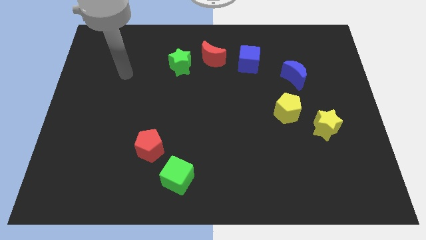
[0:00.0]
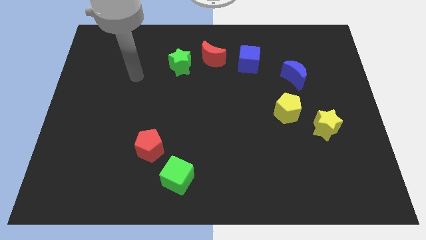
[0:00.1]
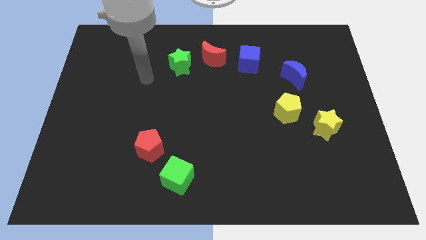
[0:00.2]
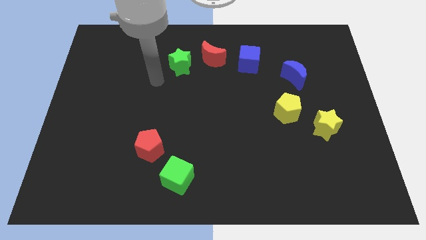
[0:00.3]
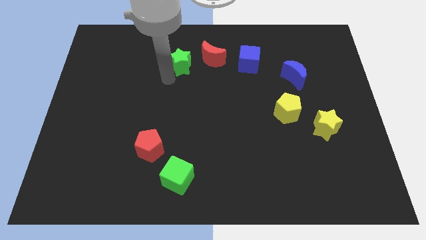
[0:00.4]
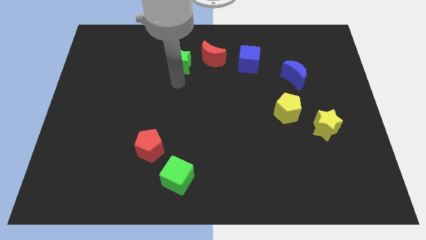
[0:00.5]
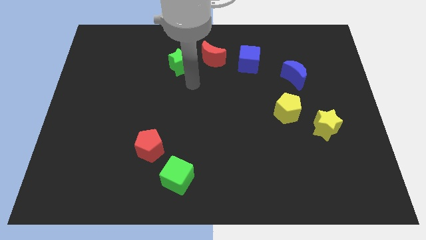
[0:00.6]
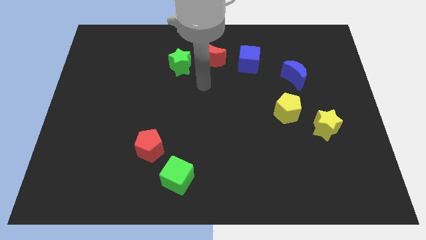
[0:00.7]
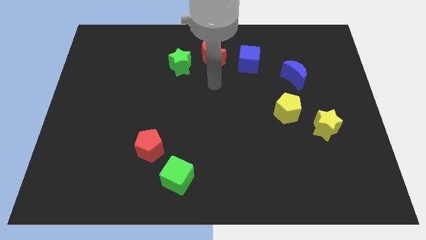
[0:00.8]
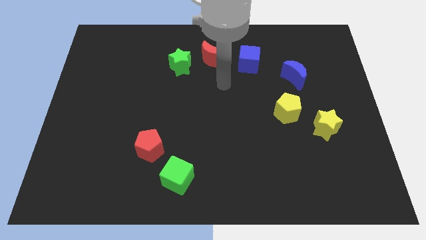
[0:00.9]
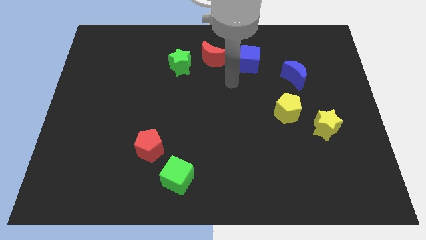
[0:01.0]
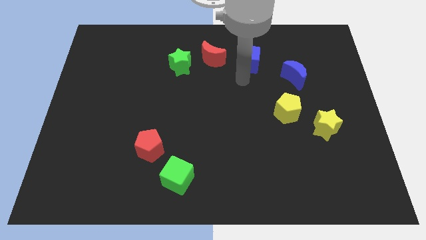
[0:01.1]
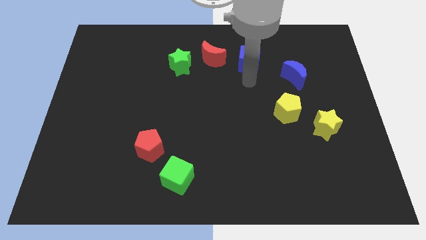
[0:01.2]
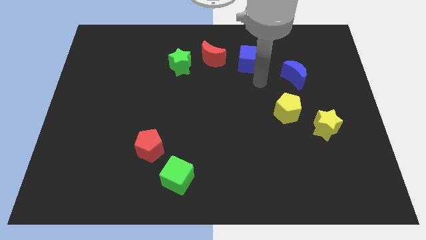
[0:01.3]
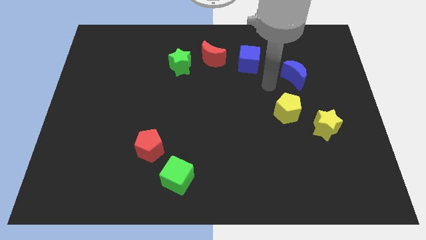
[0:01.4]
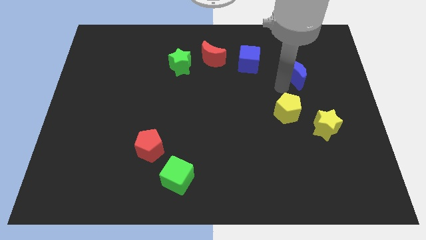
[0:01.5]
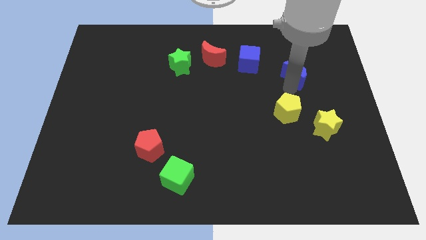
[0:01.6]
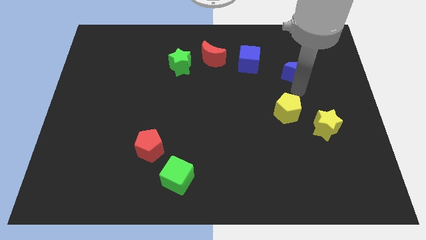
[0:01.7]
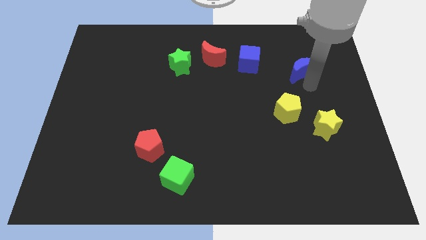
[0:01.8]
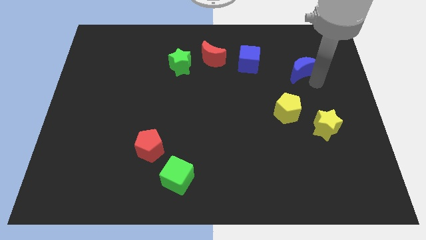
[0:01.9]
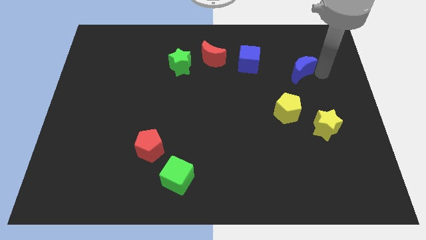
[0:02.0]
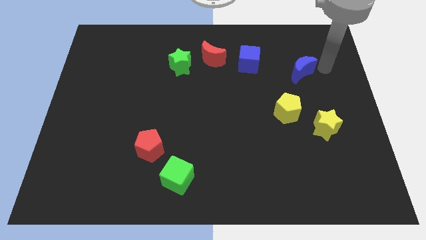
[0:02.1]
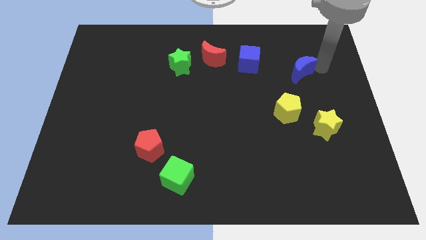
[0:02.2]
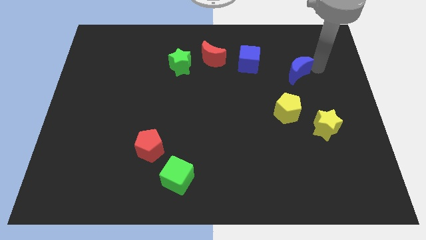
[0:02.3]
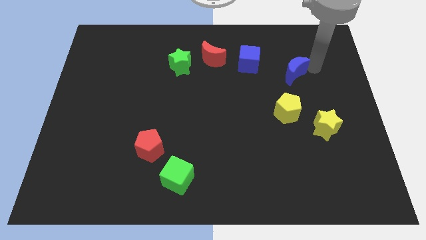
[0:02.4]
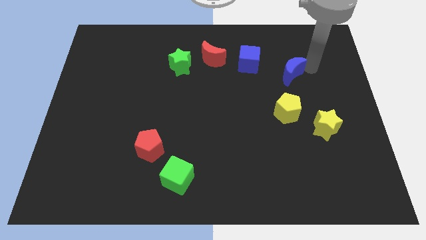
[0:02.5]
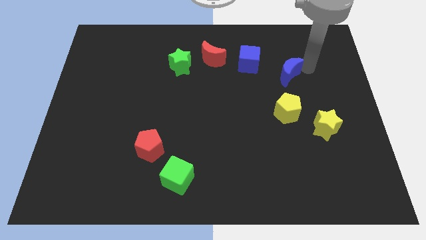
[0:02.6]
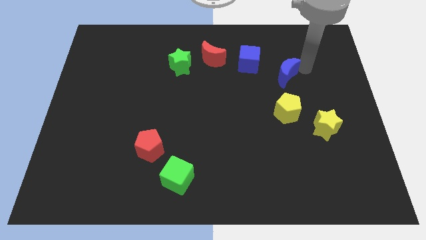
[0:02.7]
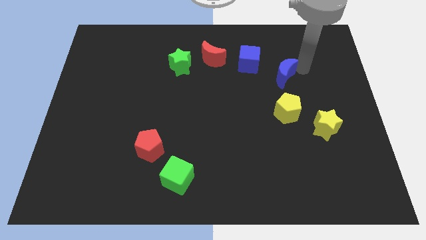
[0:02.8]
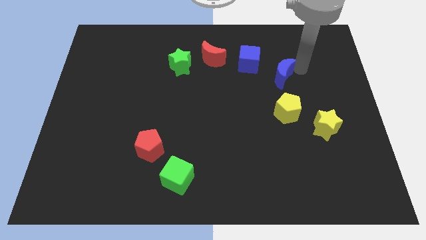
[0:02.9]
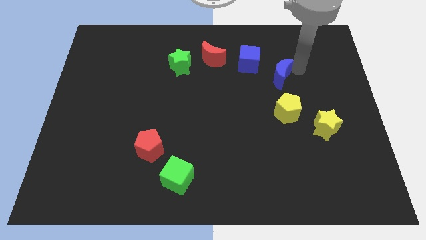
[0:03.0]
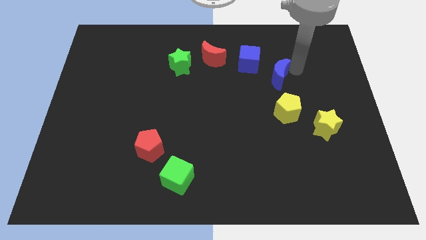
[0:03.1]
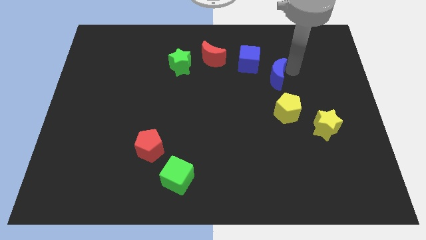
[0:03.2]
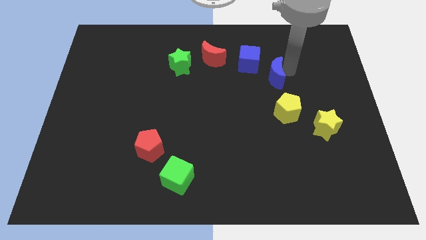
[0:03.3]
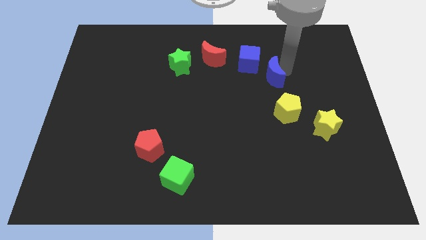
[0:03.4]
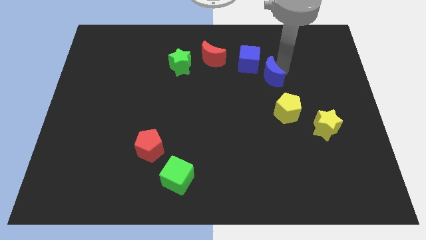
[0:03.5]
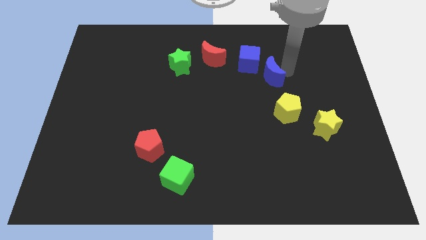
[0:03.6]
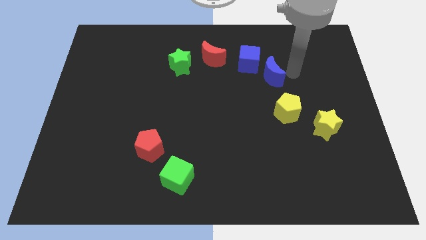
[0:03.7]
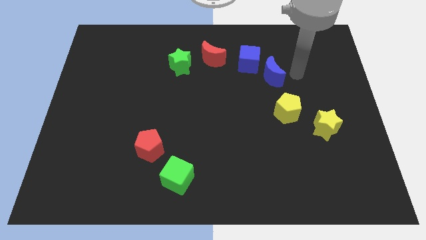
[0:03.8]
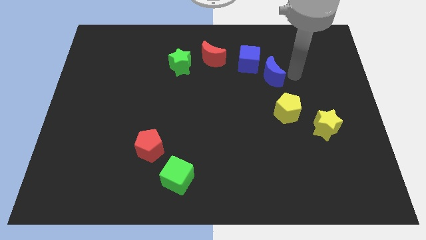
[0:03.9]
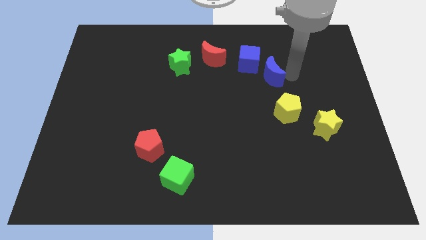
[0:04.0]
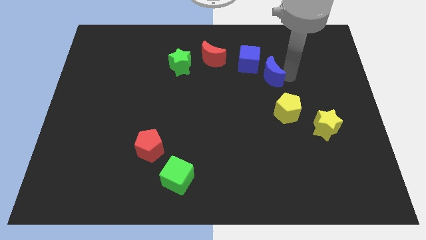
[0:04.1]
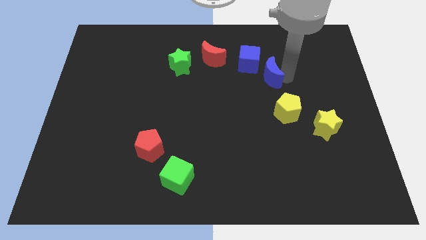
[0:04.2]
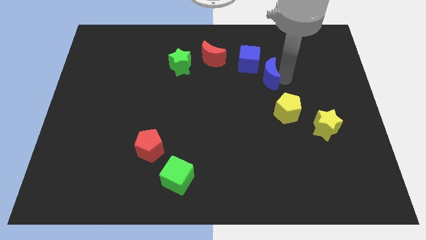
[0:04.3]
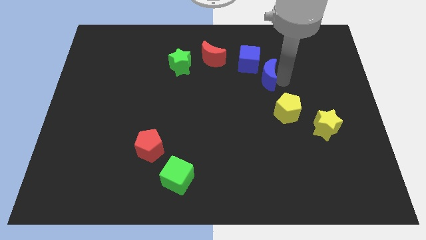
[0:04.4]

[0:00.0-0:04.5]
slightly slide the blue moon to the left

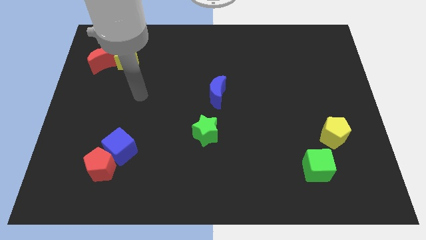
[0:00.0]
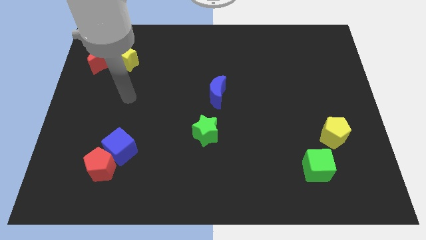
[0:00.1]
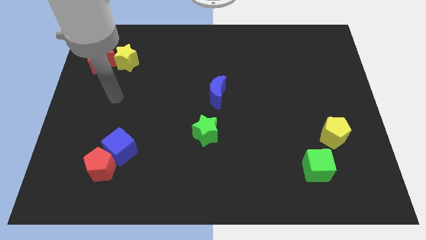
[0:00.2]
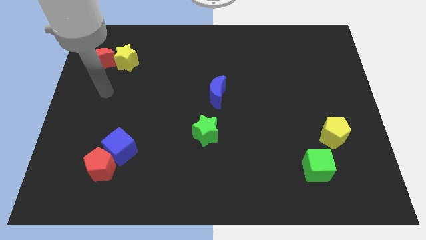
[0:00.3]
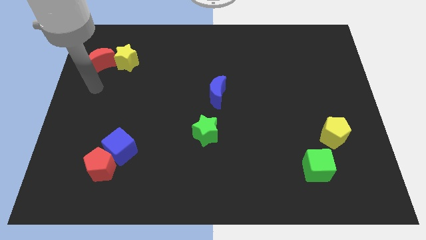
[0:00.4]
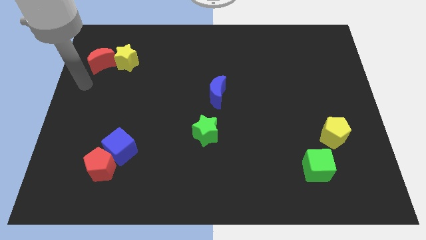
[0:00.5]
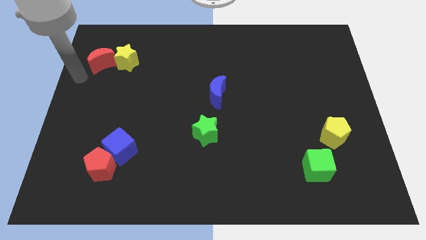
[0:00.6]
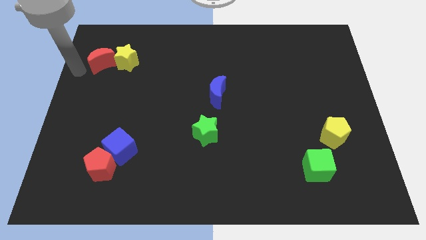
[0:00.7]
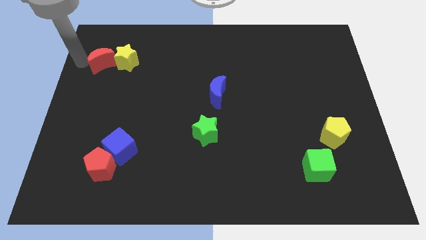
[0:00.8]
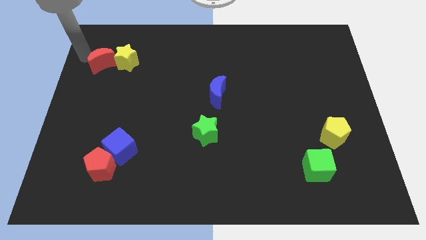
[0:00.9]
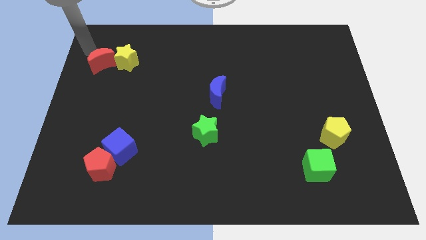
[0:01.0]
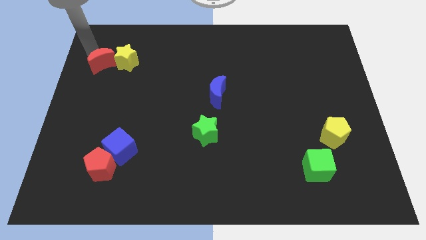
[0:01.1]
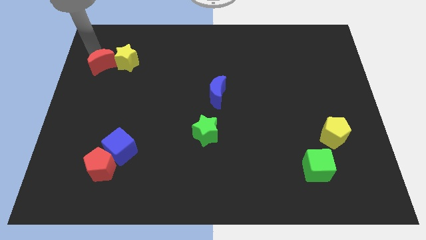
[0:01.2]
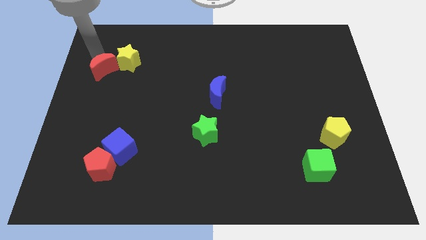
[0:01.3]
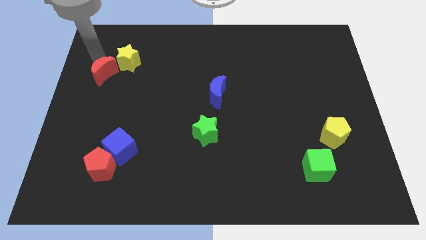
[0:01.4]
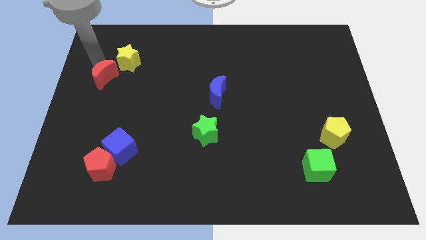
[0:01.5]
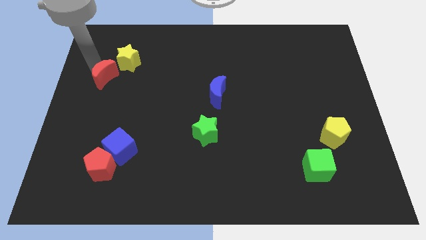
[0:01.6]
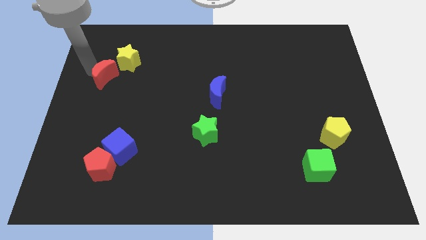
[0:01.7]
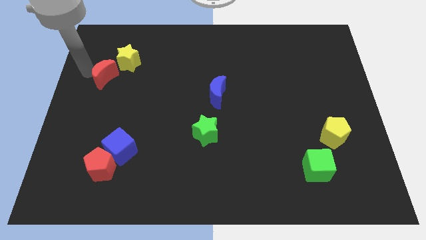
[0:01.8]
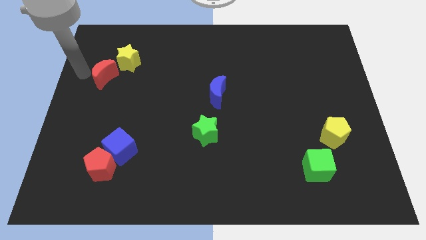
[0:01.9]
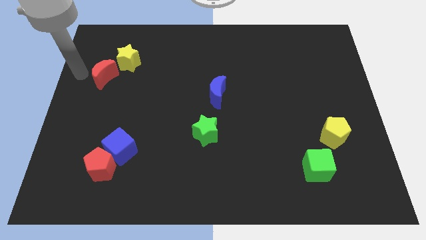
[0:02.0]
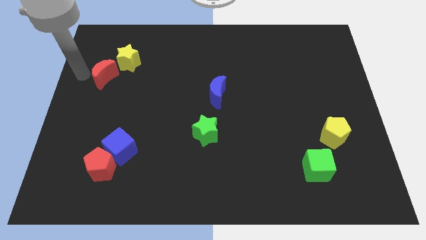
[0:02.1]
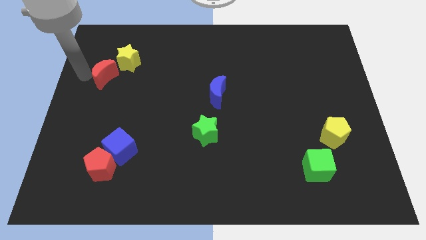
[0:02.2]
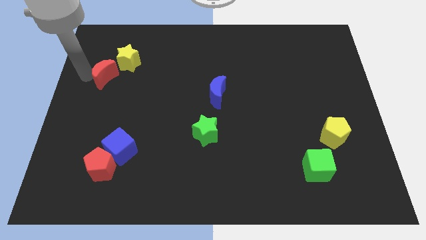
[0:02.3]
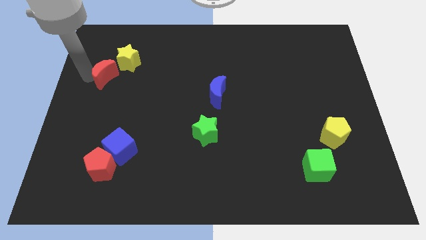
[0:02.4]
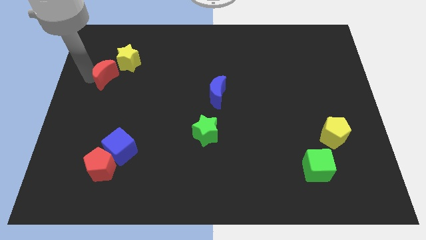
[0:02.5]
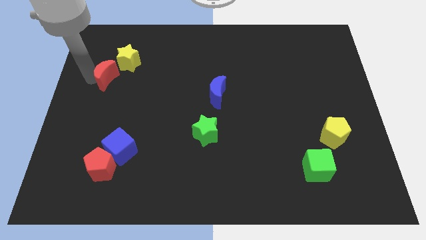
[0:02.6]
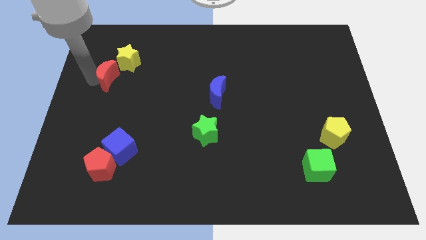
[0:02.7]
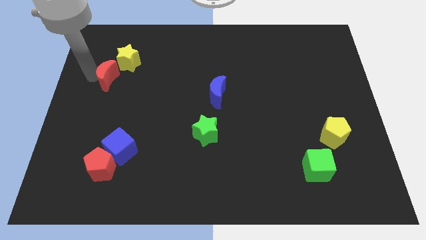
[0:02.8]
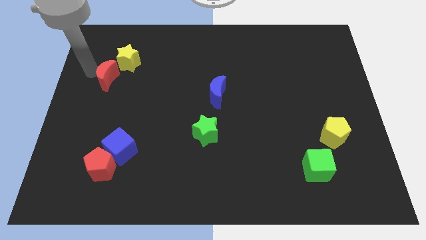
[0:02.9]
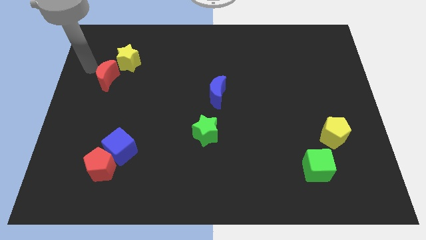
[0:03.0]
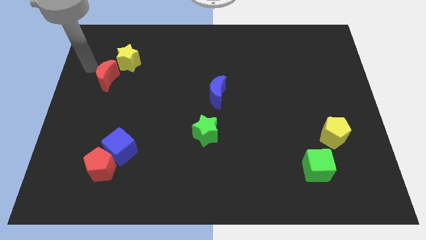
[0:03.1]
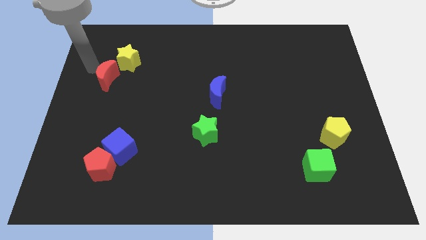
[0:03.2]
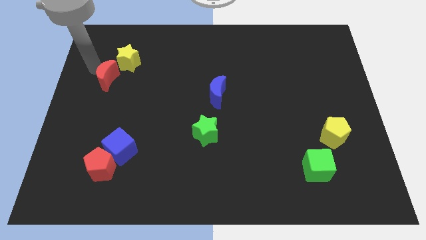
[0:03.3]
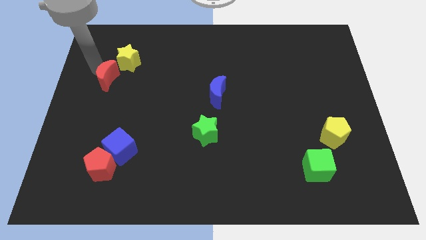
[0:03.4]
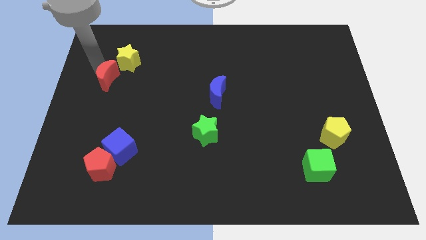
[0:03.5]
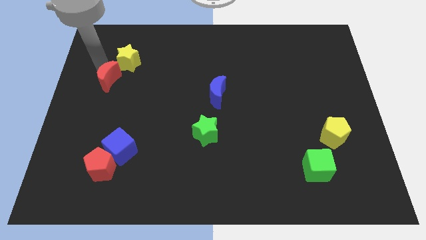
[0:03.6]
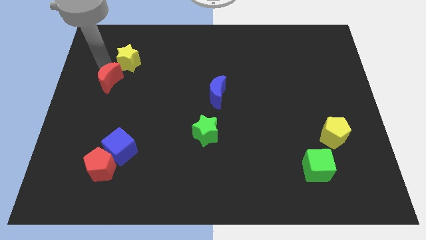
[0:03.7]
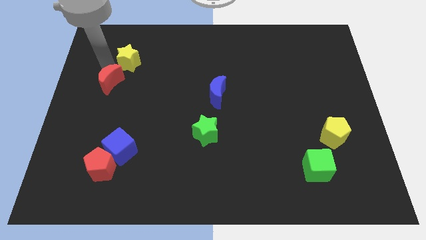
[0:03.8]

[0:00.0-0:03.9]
slightly move the red moon downwards and then to the right
